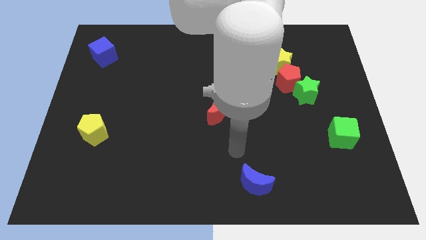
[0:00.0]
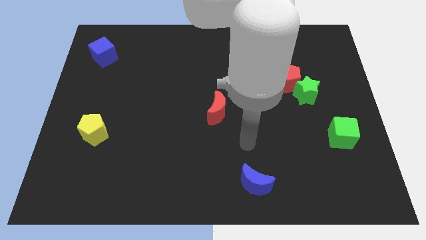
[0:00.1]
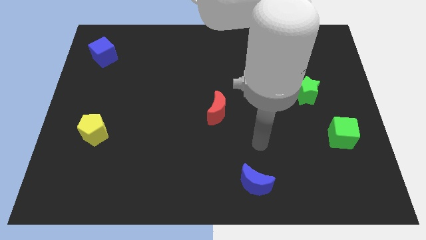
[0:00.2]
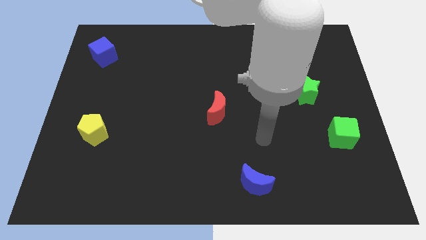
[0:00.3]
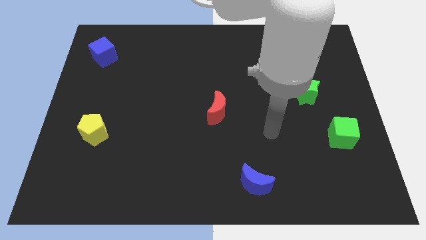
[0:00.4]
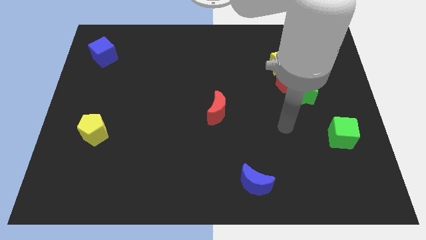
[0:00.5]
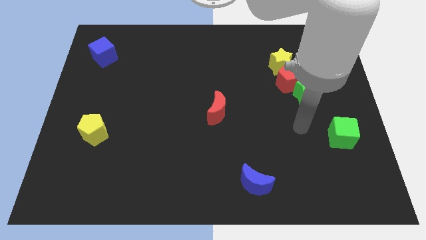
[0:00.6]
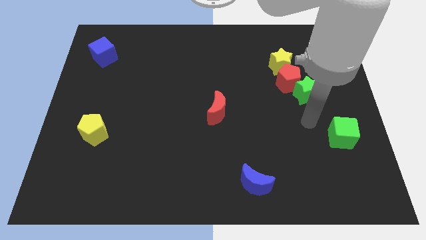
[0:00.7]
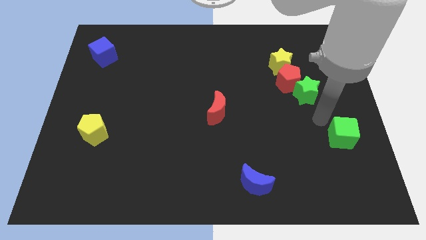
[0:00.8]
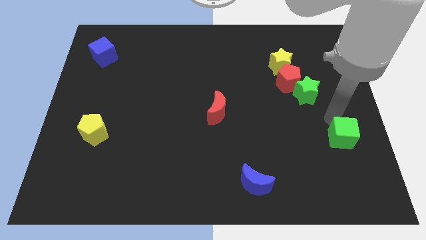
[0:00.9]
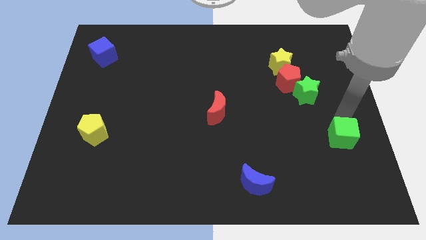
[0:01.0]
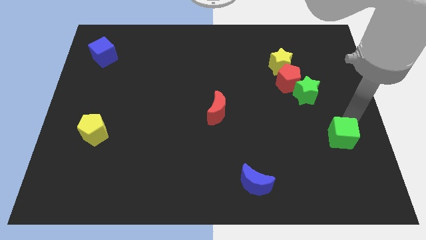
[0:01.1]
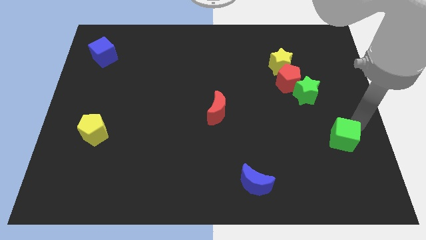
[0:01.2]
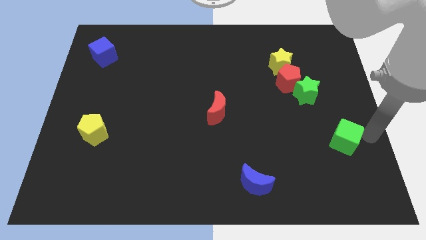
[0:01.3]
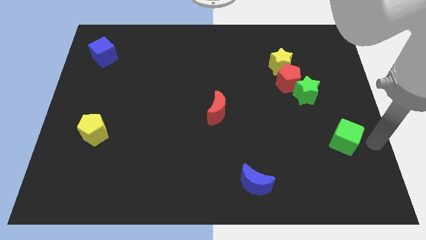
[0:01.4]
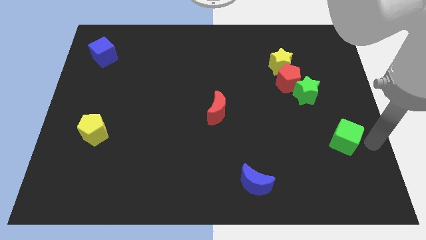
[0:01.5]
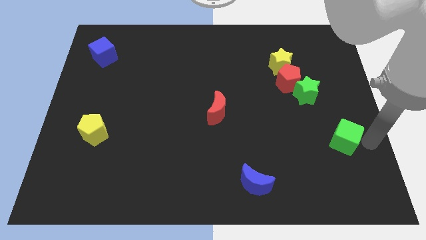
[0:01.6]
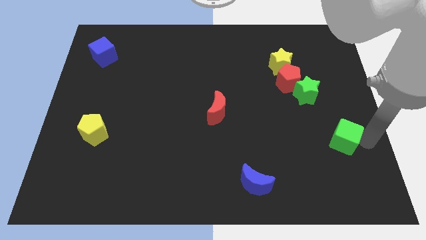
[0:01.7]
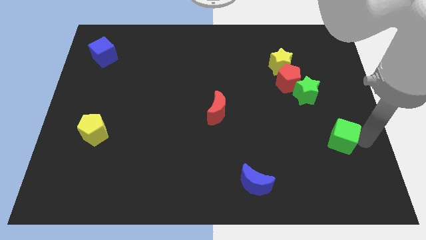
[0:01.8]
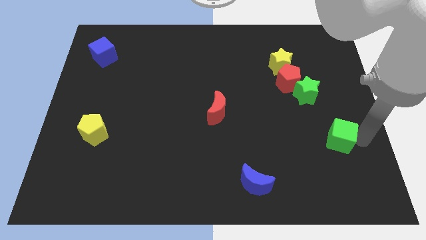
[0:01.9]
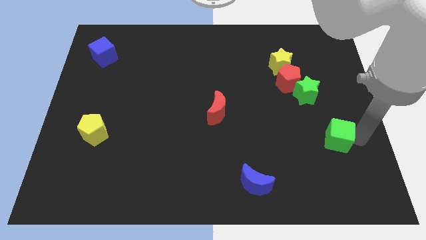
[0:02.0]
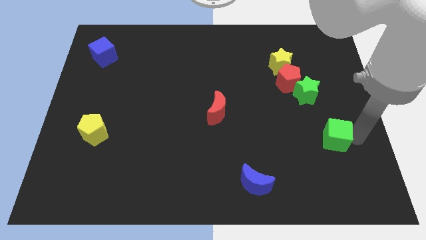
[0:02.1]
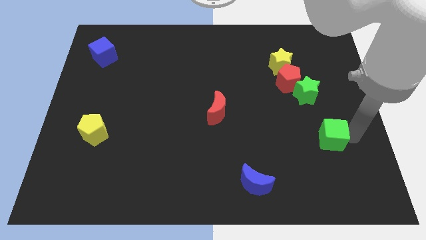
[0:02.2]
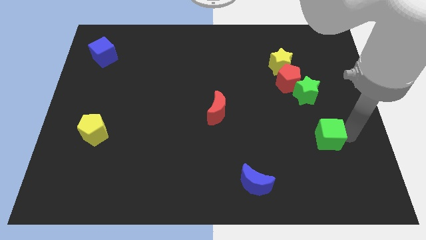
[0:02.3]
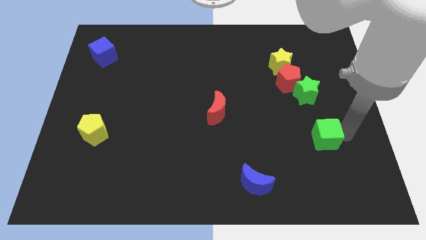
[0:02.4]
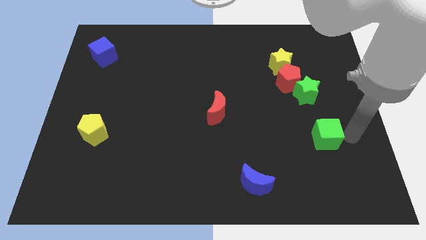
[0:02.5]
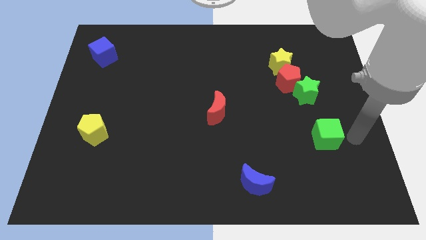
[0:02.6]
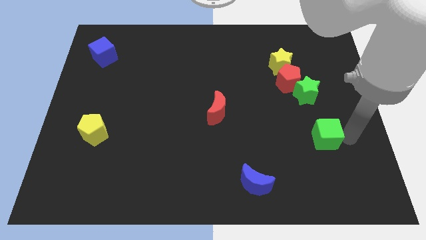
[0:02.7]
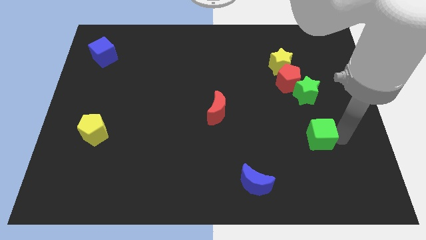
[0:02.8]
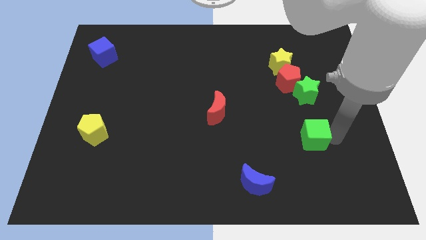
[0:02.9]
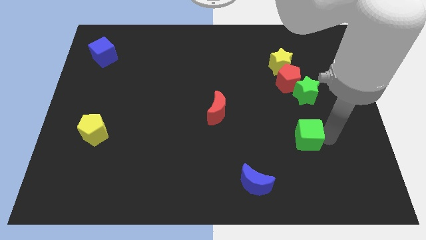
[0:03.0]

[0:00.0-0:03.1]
slightly slide the green cube to the left

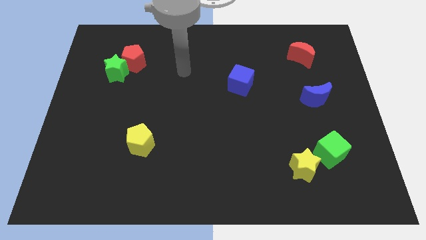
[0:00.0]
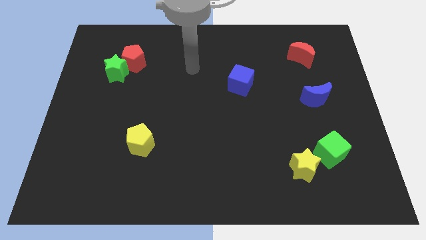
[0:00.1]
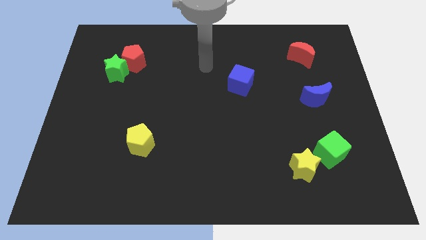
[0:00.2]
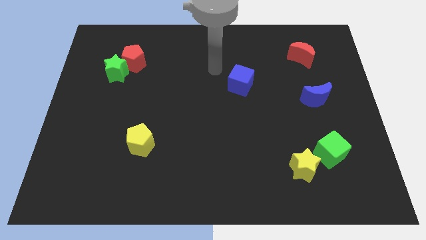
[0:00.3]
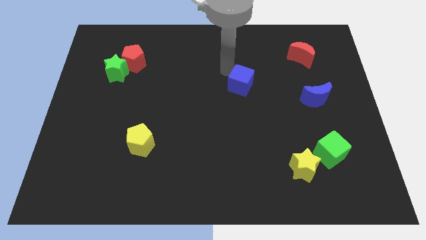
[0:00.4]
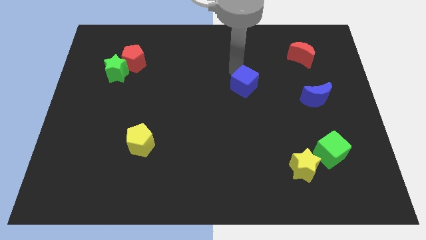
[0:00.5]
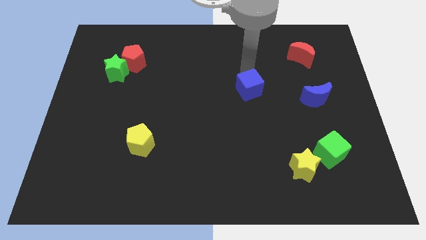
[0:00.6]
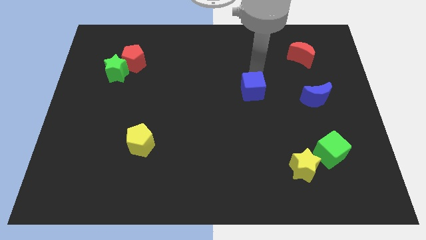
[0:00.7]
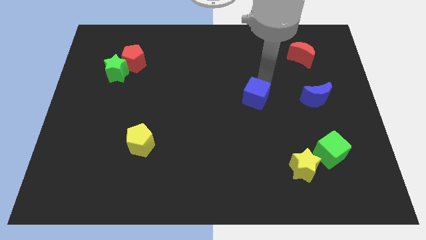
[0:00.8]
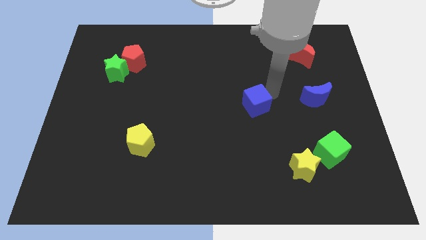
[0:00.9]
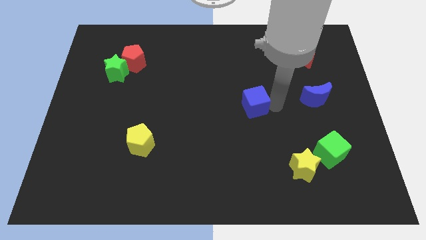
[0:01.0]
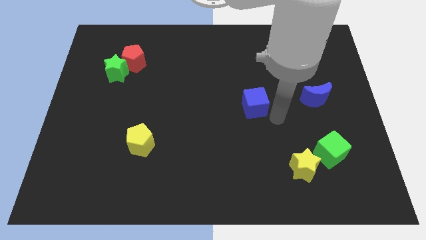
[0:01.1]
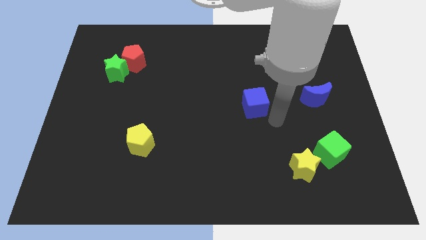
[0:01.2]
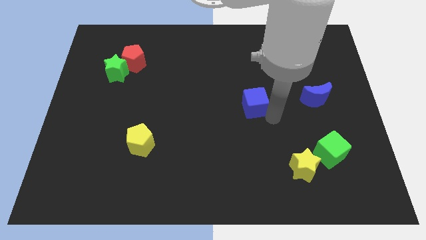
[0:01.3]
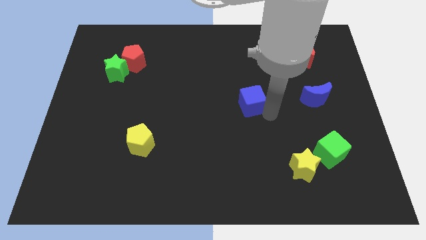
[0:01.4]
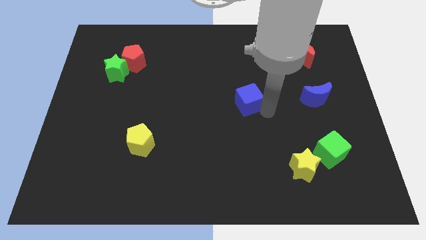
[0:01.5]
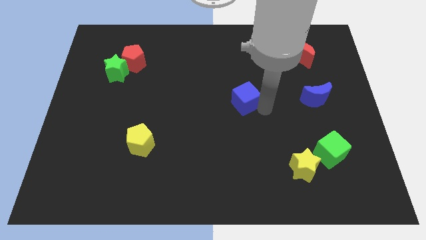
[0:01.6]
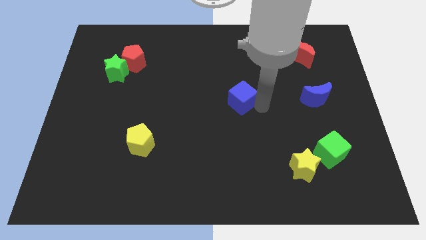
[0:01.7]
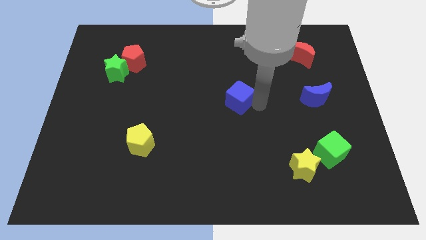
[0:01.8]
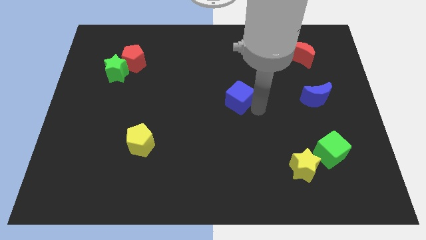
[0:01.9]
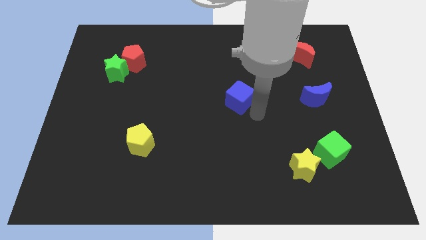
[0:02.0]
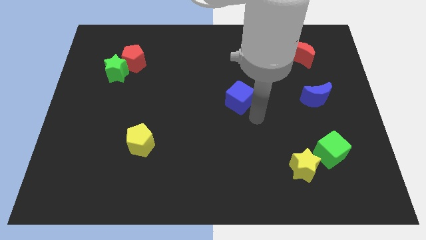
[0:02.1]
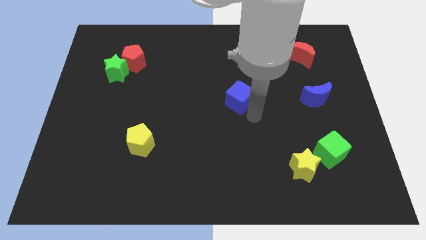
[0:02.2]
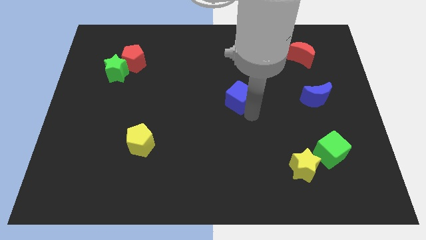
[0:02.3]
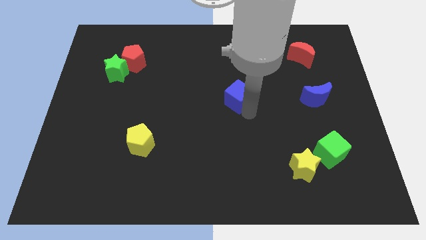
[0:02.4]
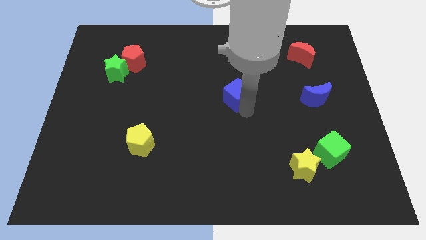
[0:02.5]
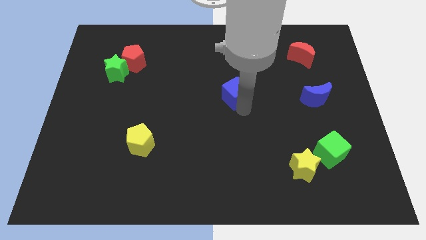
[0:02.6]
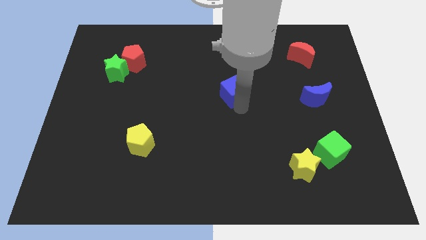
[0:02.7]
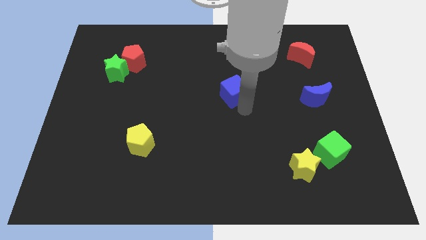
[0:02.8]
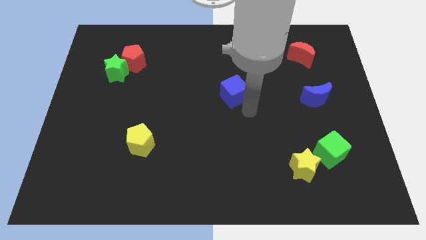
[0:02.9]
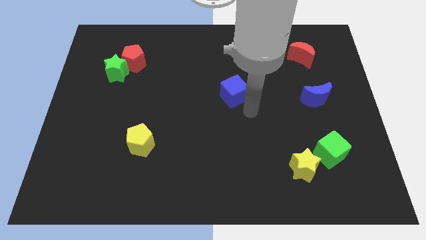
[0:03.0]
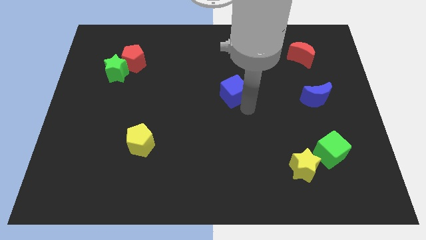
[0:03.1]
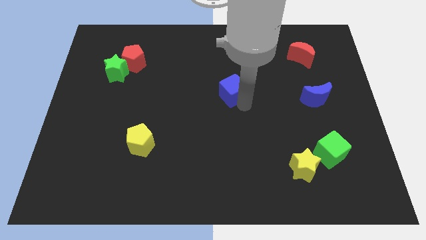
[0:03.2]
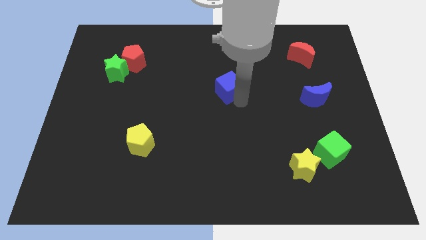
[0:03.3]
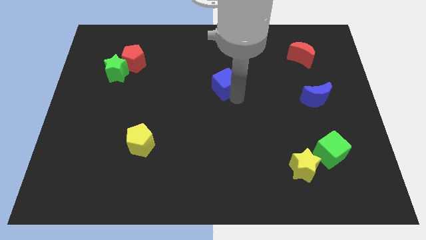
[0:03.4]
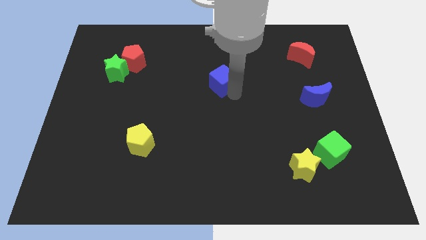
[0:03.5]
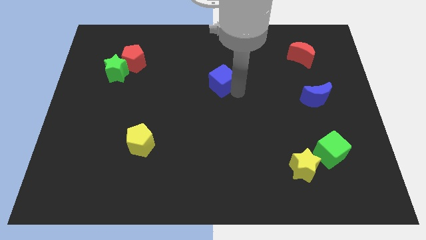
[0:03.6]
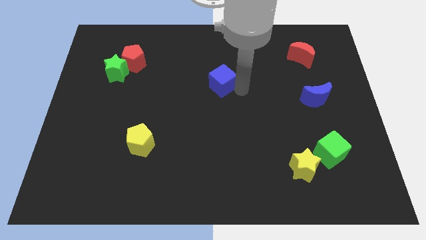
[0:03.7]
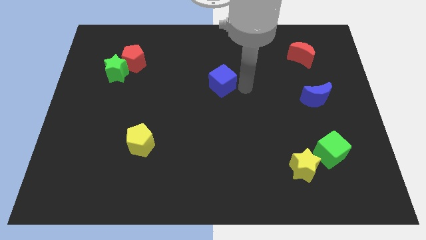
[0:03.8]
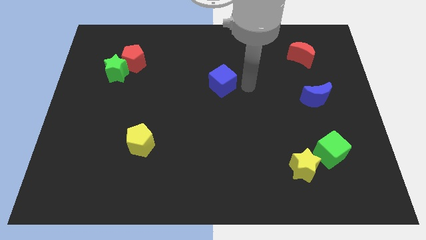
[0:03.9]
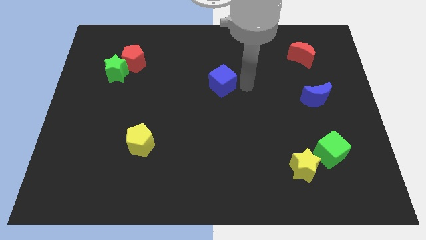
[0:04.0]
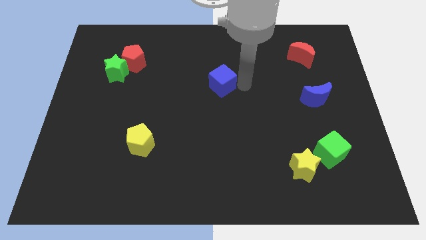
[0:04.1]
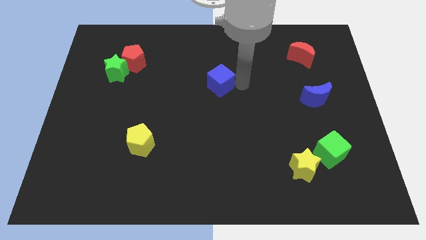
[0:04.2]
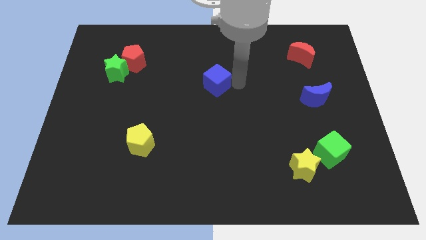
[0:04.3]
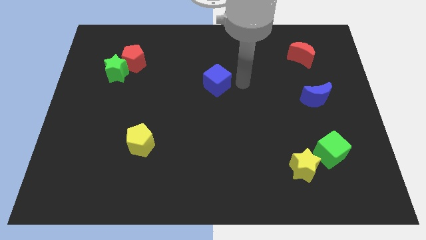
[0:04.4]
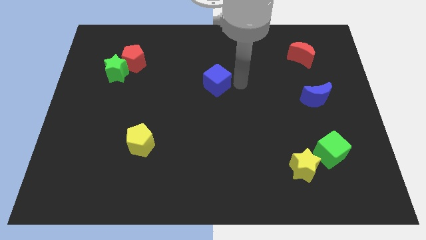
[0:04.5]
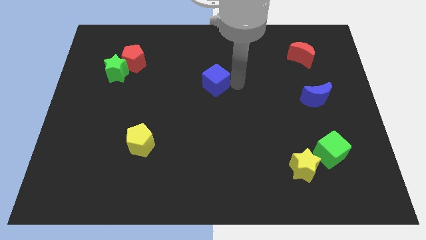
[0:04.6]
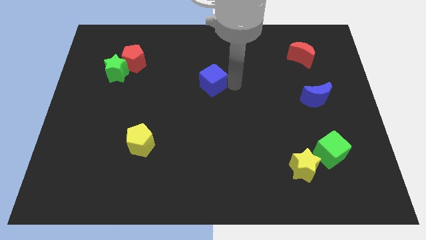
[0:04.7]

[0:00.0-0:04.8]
slightly push the blue cube to the left

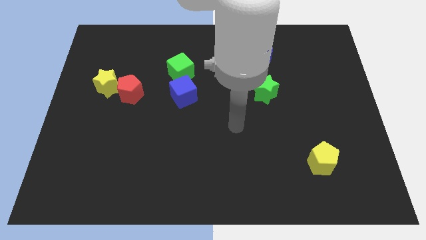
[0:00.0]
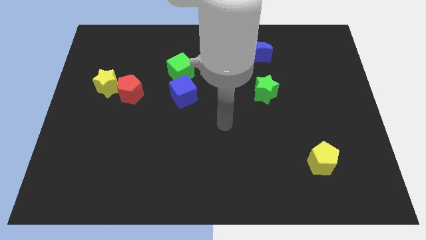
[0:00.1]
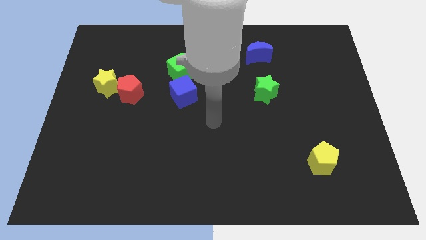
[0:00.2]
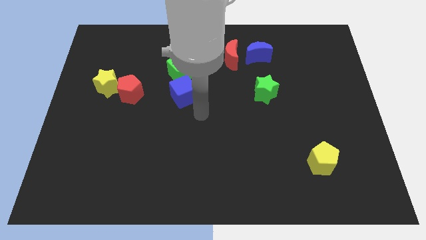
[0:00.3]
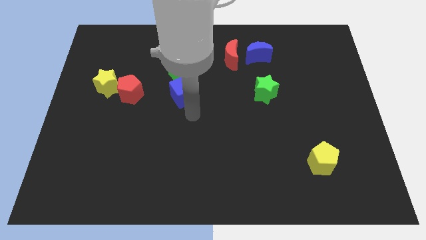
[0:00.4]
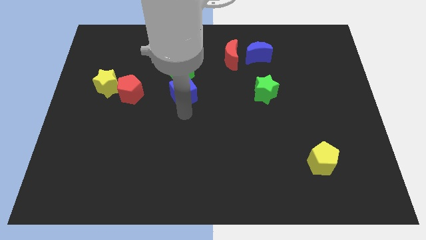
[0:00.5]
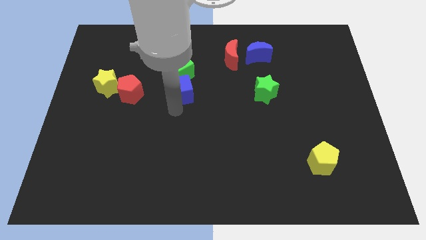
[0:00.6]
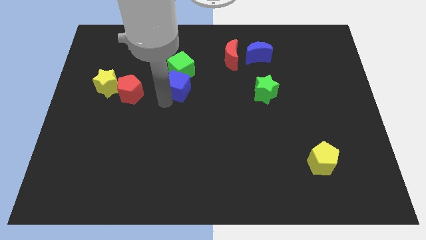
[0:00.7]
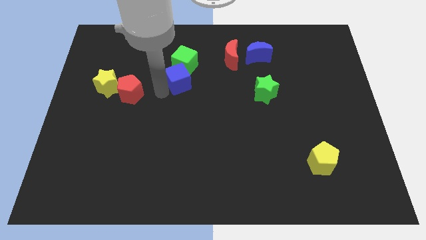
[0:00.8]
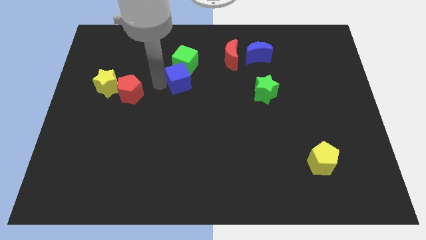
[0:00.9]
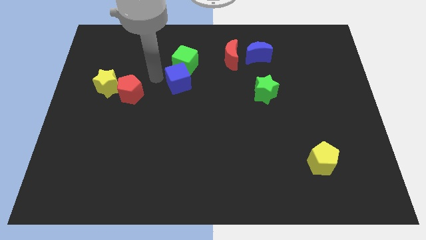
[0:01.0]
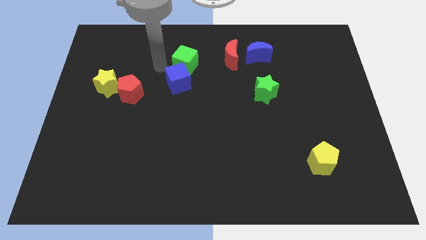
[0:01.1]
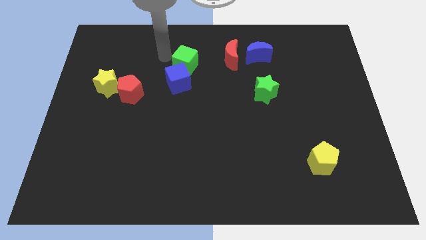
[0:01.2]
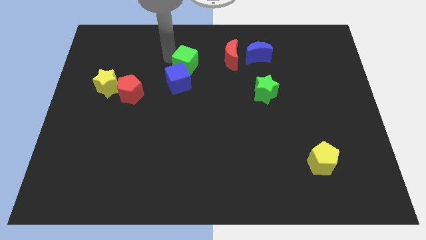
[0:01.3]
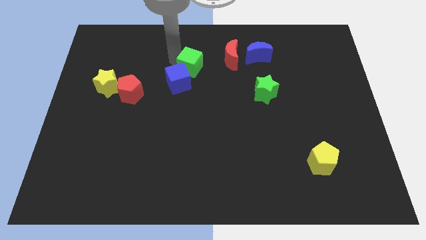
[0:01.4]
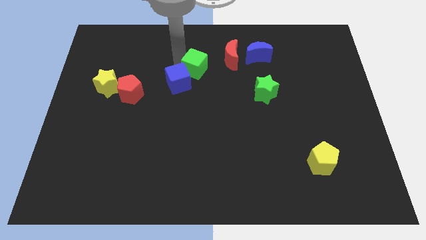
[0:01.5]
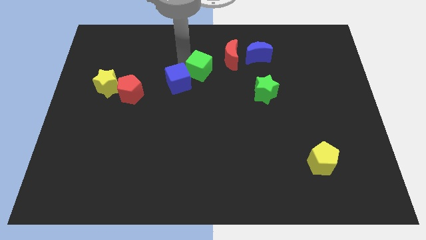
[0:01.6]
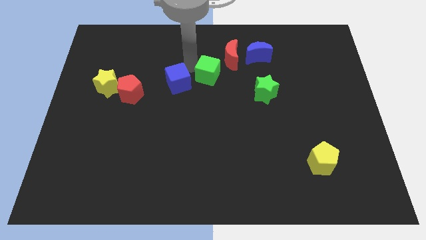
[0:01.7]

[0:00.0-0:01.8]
slightly move the green cube to the right
